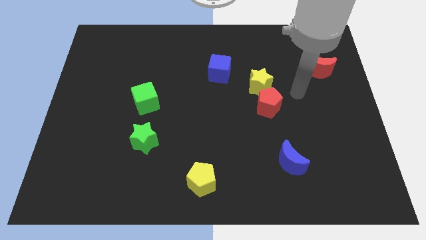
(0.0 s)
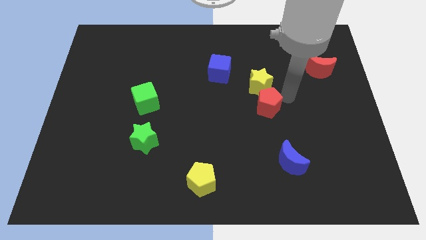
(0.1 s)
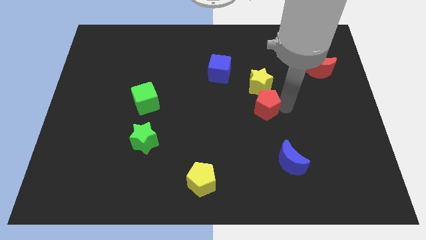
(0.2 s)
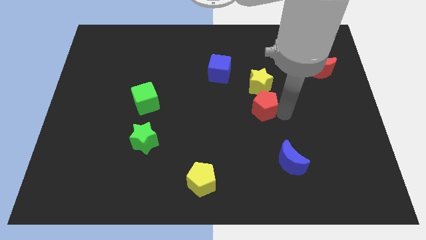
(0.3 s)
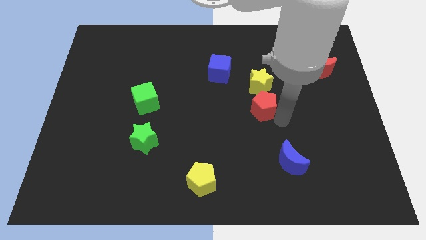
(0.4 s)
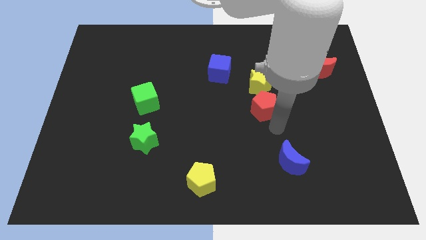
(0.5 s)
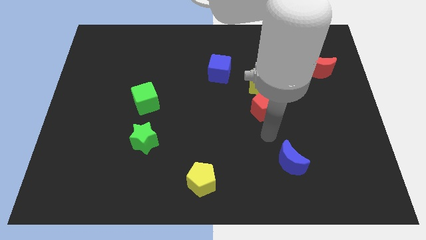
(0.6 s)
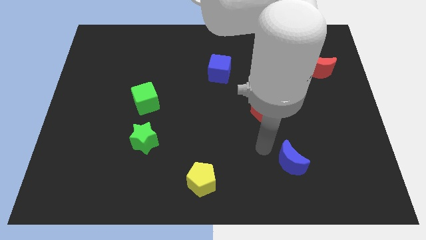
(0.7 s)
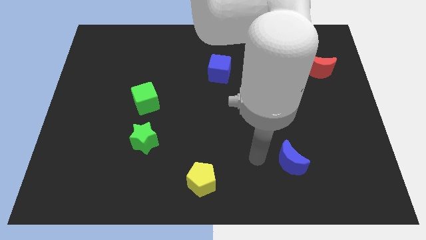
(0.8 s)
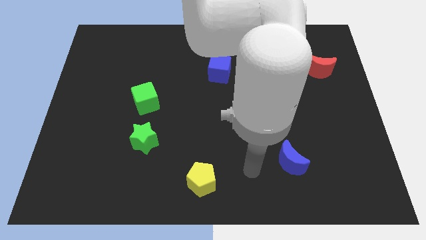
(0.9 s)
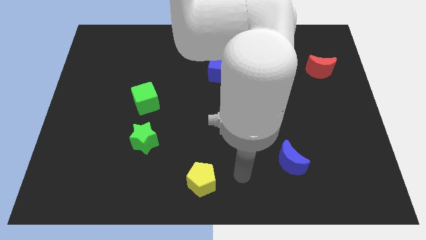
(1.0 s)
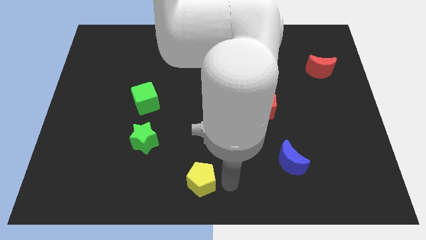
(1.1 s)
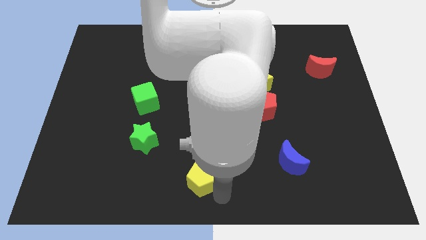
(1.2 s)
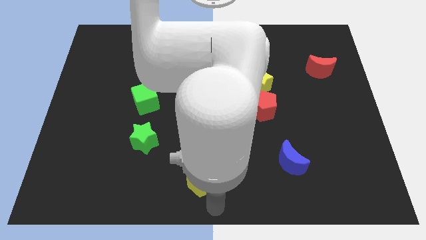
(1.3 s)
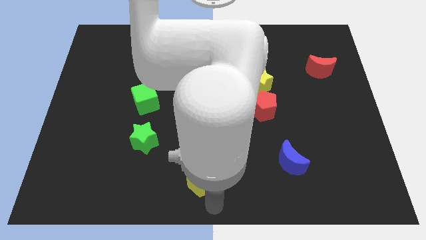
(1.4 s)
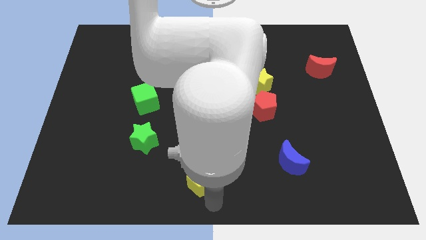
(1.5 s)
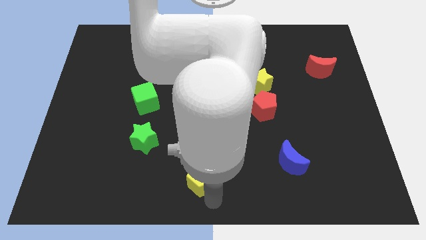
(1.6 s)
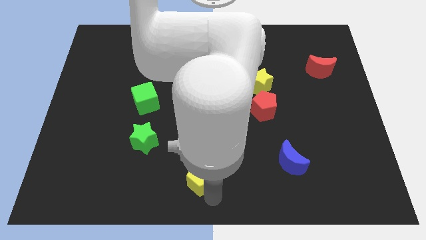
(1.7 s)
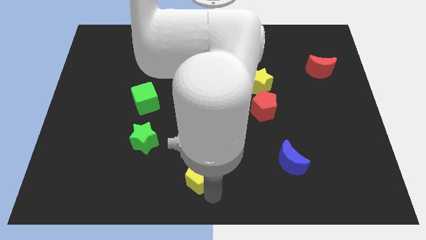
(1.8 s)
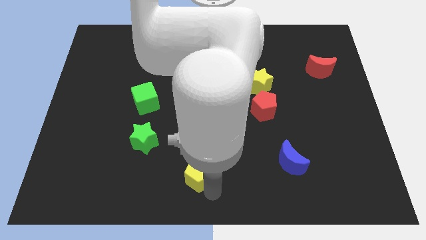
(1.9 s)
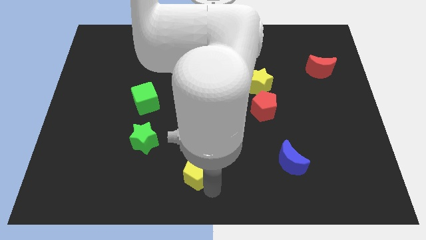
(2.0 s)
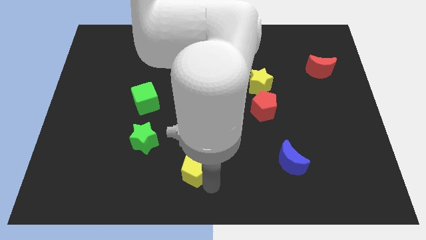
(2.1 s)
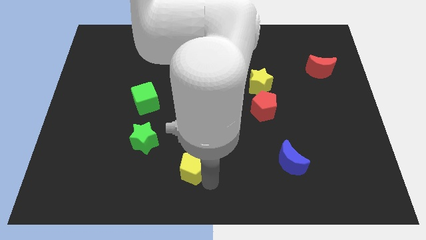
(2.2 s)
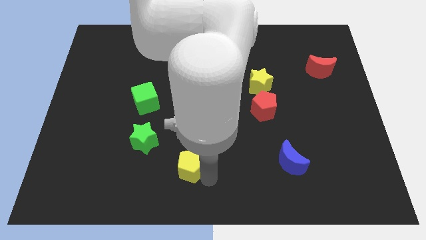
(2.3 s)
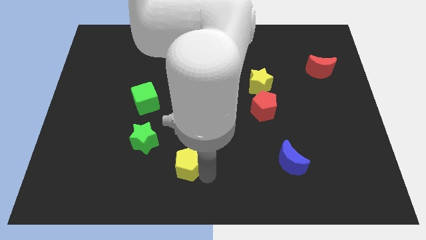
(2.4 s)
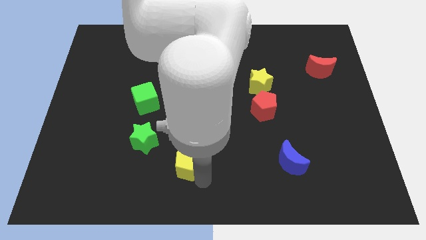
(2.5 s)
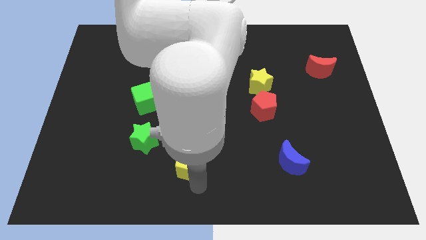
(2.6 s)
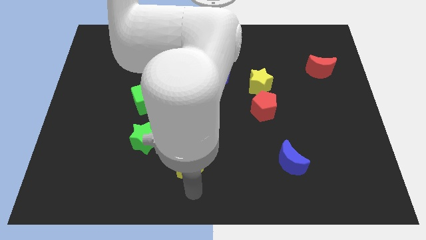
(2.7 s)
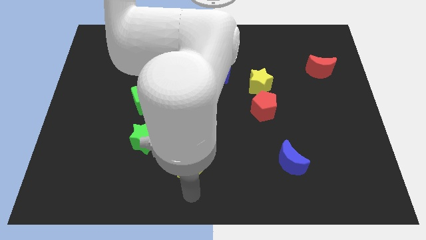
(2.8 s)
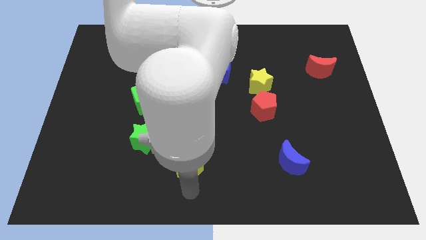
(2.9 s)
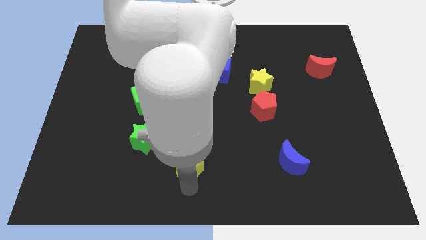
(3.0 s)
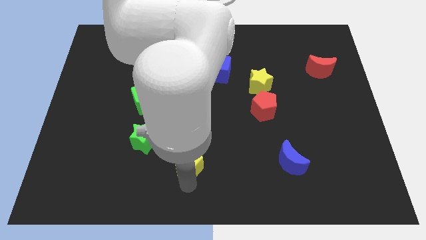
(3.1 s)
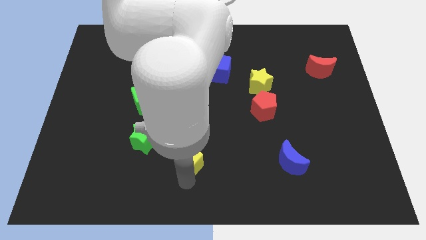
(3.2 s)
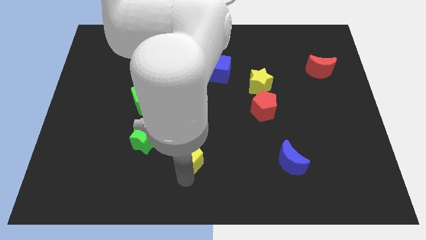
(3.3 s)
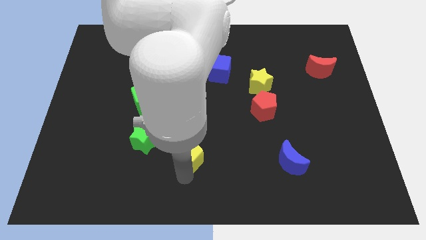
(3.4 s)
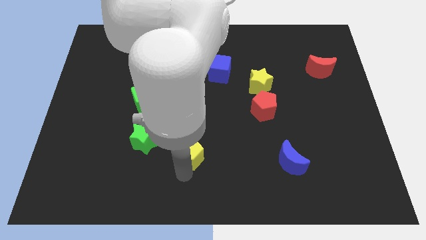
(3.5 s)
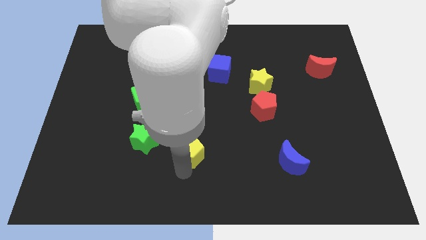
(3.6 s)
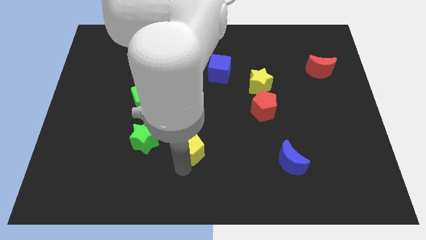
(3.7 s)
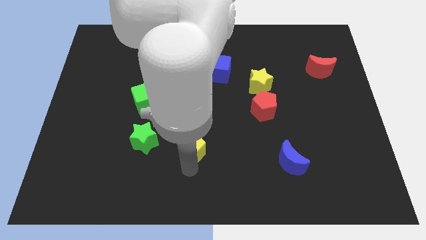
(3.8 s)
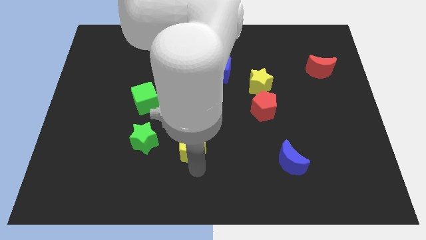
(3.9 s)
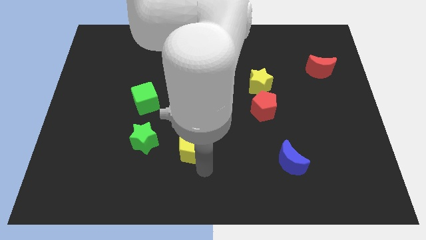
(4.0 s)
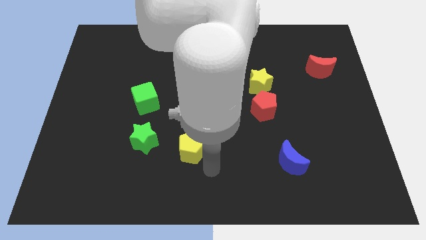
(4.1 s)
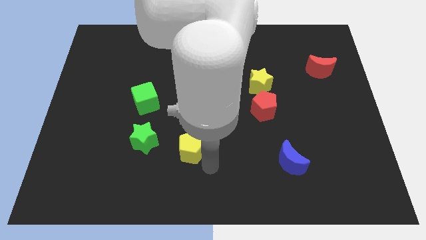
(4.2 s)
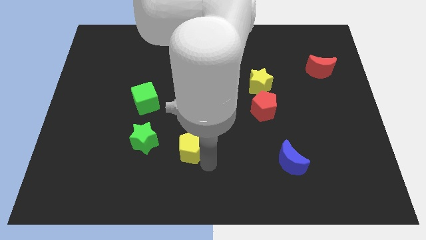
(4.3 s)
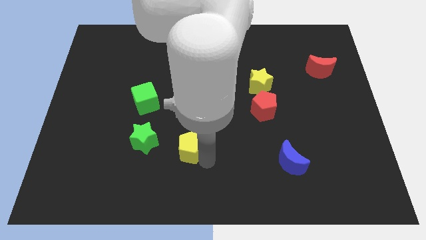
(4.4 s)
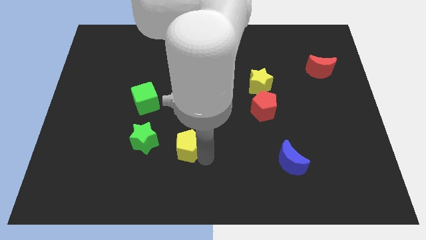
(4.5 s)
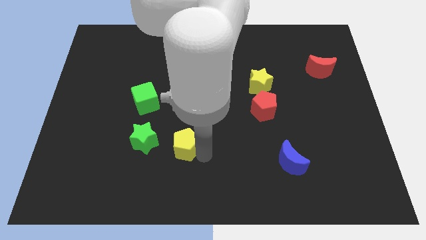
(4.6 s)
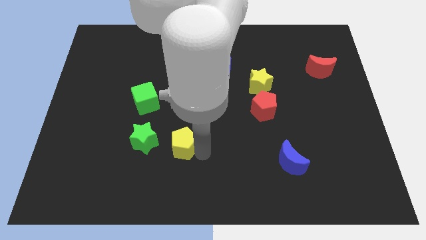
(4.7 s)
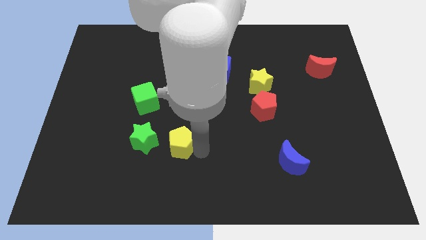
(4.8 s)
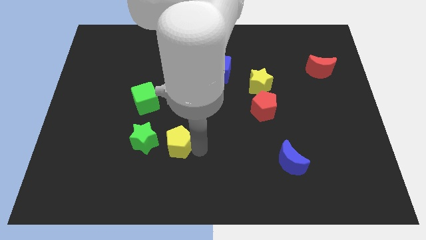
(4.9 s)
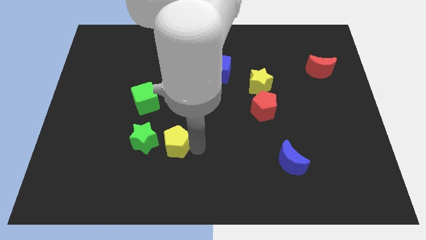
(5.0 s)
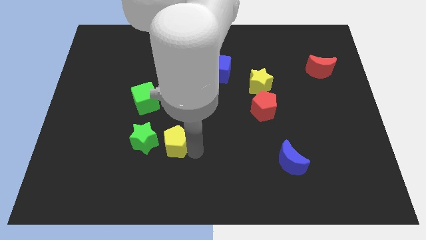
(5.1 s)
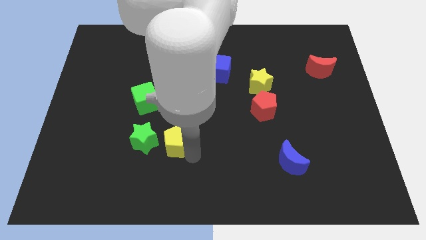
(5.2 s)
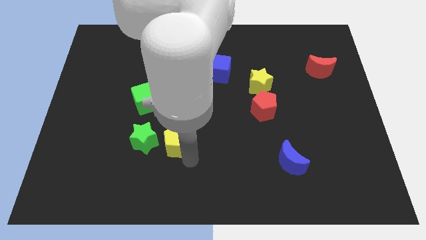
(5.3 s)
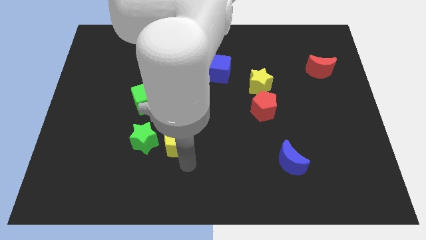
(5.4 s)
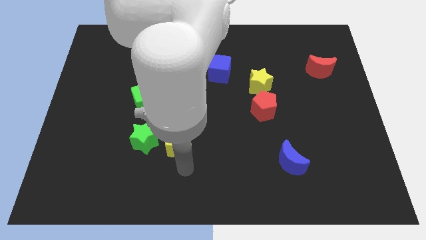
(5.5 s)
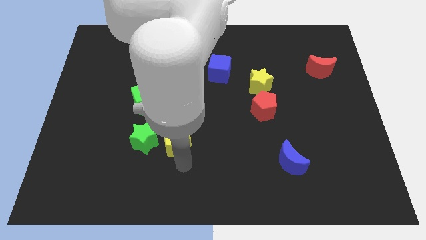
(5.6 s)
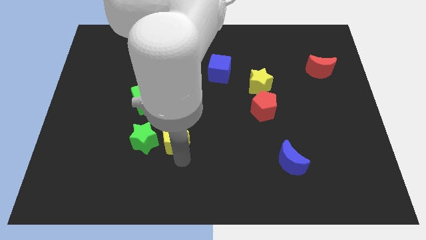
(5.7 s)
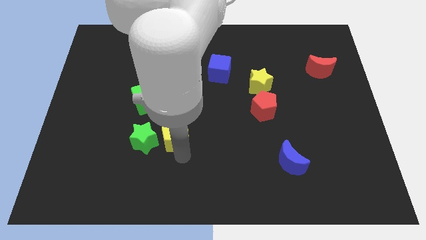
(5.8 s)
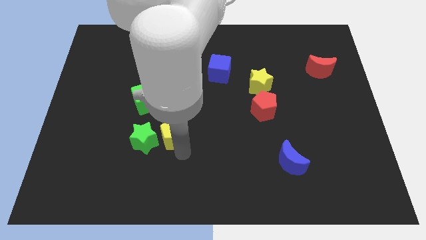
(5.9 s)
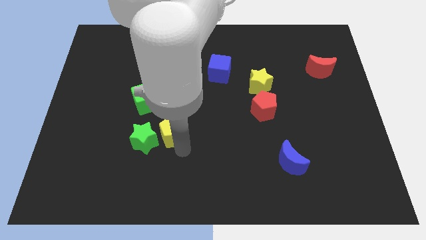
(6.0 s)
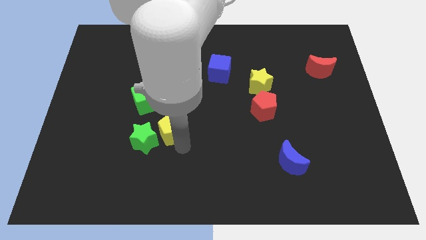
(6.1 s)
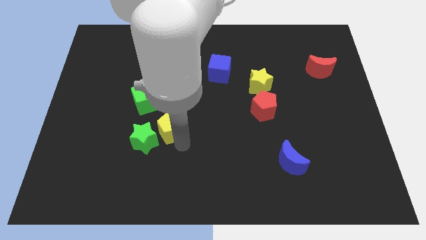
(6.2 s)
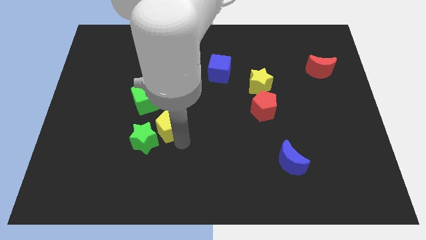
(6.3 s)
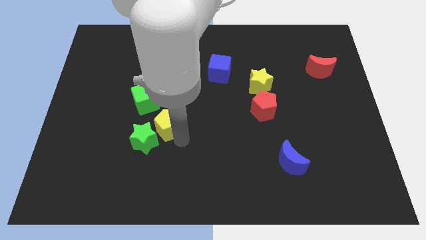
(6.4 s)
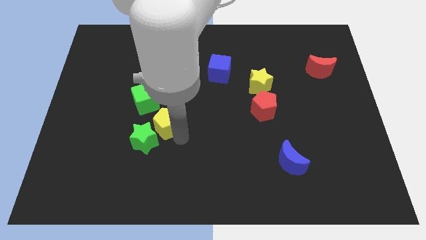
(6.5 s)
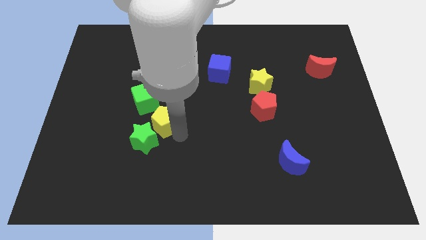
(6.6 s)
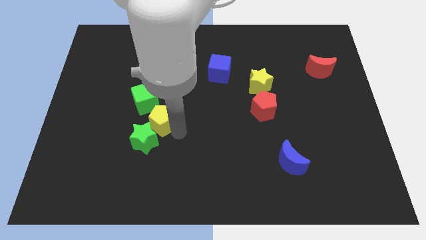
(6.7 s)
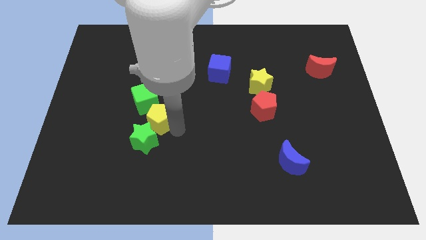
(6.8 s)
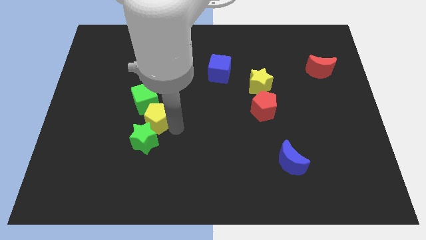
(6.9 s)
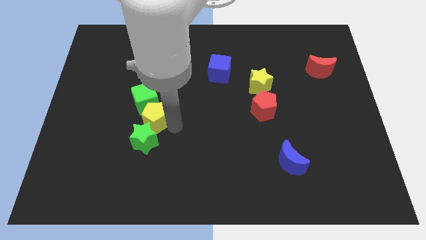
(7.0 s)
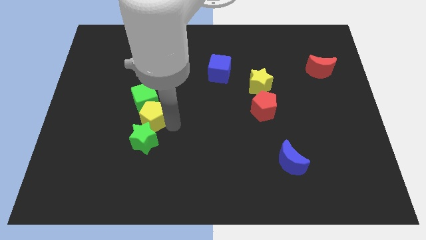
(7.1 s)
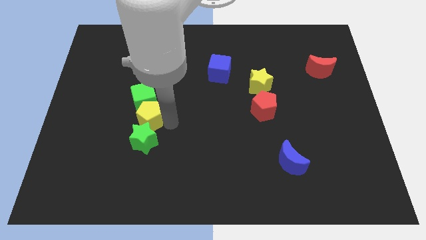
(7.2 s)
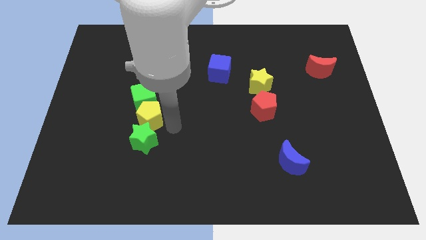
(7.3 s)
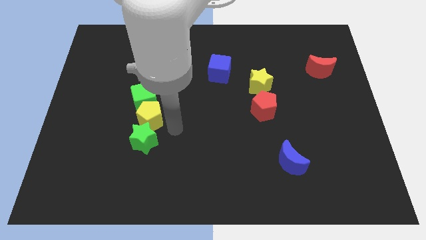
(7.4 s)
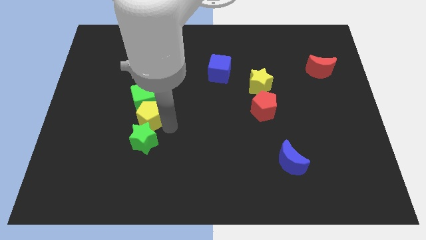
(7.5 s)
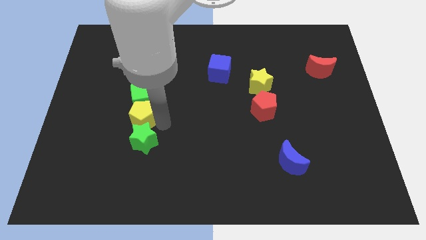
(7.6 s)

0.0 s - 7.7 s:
move the yellow pentagon up and then to the left

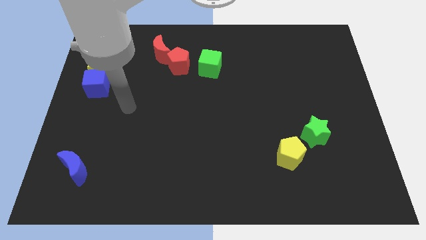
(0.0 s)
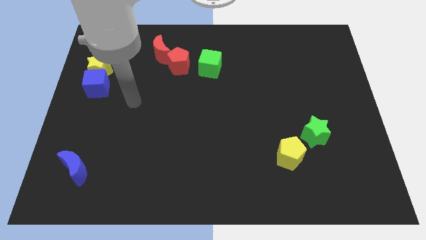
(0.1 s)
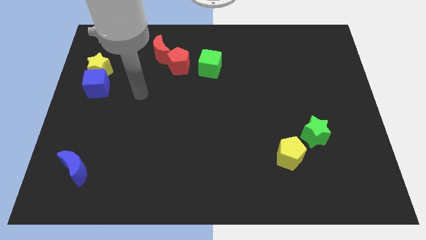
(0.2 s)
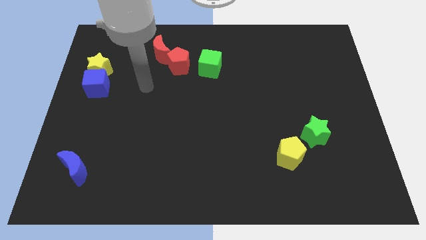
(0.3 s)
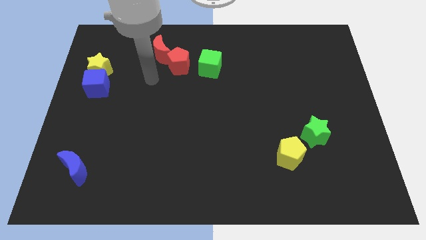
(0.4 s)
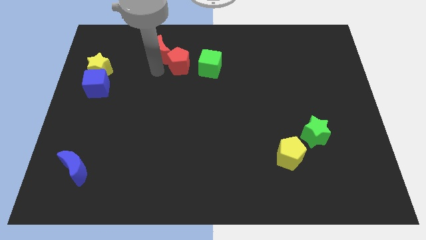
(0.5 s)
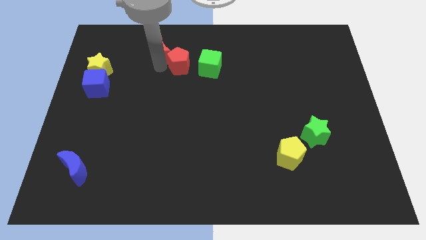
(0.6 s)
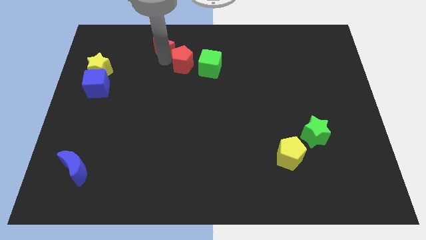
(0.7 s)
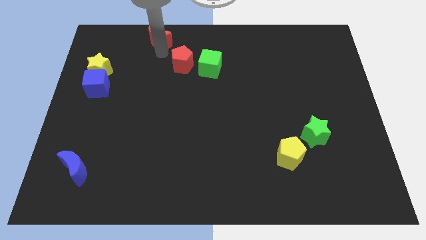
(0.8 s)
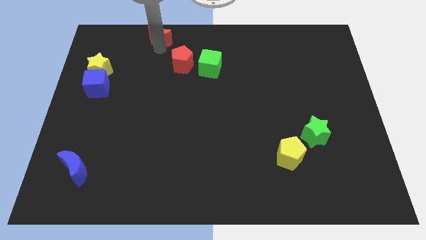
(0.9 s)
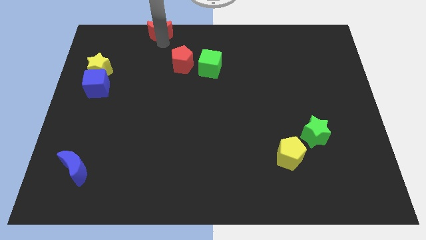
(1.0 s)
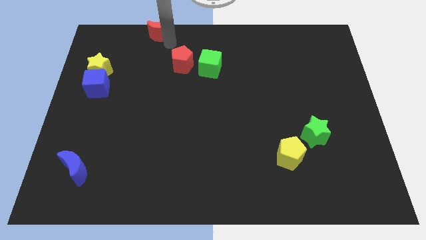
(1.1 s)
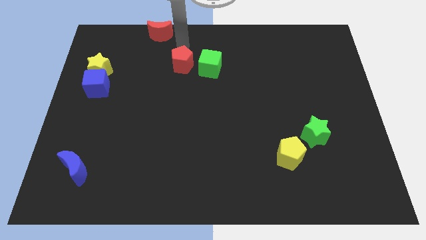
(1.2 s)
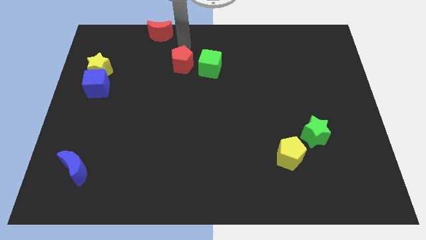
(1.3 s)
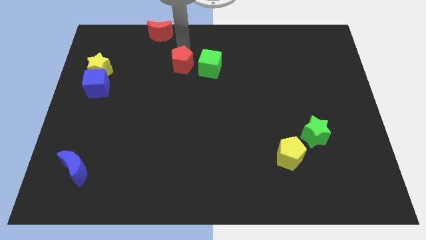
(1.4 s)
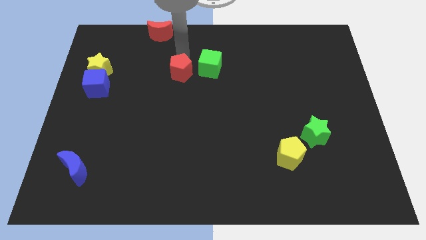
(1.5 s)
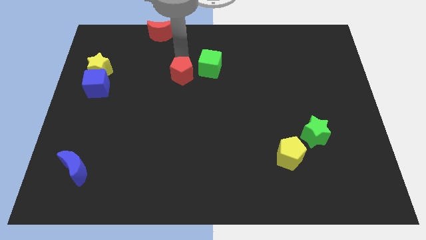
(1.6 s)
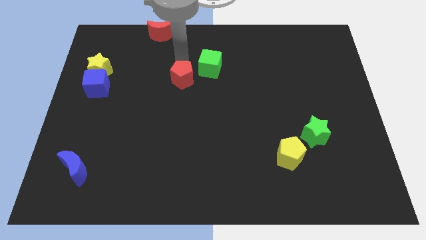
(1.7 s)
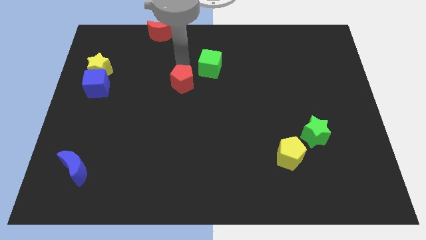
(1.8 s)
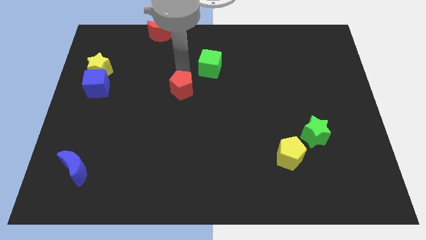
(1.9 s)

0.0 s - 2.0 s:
push the red pentagon a little downwards
